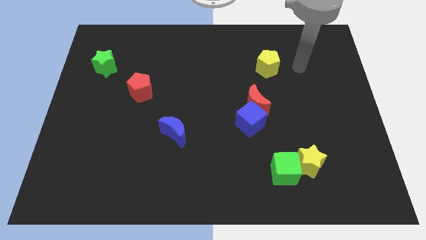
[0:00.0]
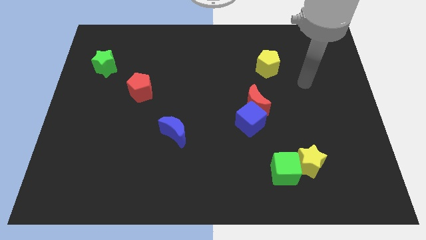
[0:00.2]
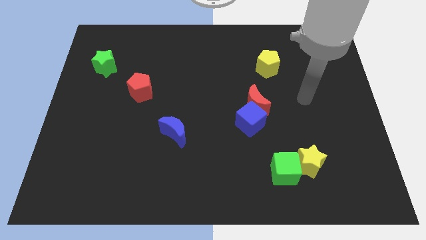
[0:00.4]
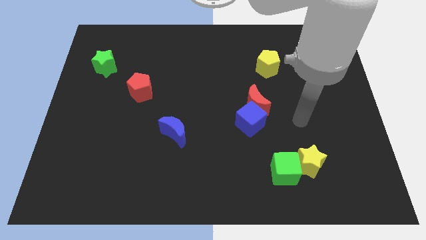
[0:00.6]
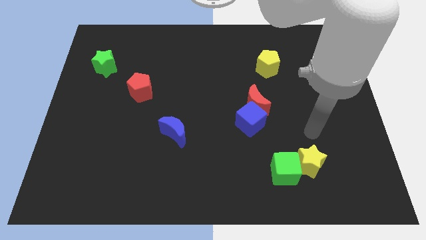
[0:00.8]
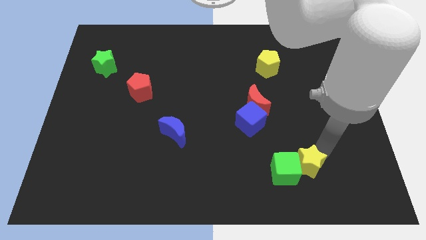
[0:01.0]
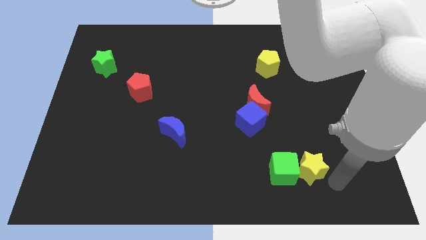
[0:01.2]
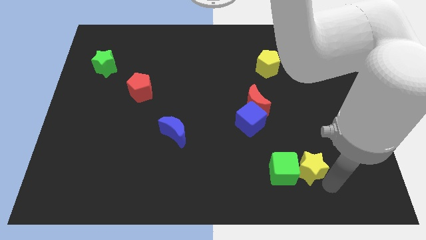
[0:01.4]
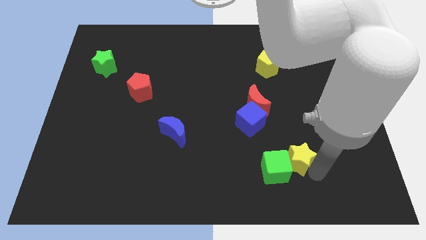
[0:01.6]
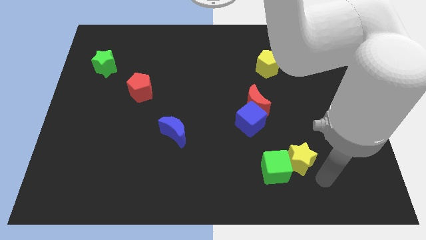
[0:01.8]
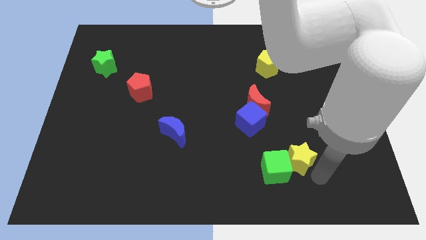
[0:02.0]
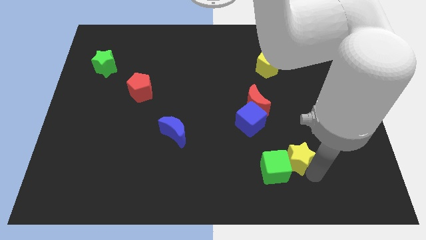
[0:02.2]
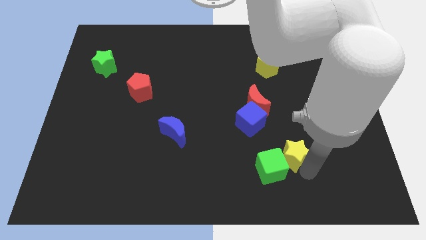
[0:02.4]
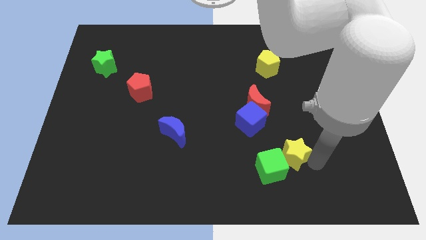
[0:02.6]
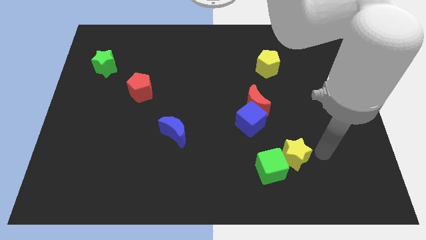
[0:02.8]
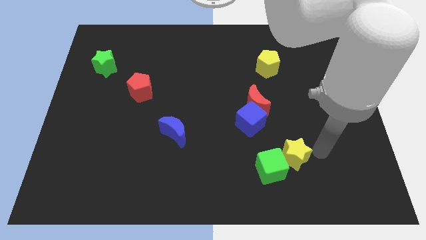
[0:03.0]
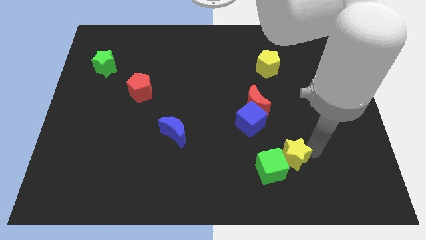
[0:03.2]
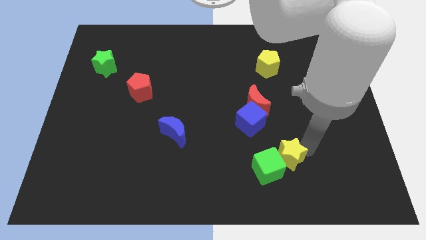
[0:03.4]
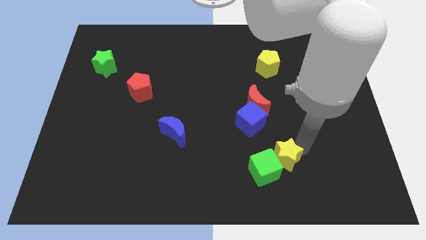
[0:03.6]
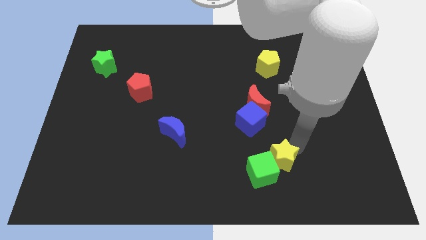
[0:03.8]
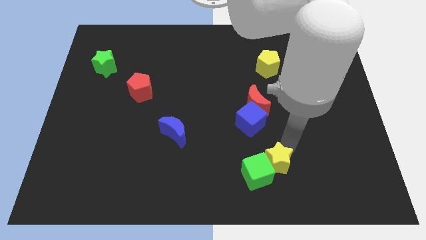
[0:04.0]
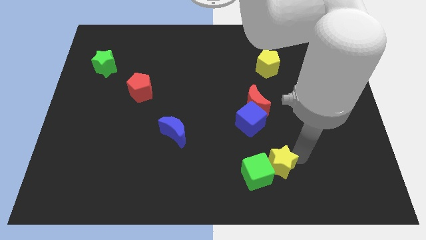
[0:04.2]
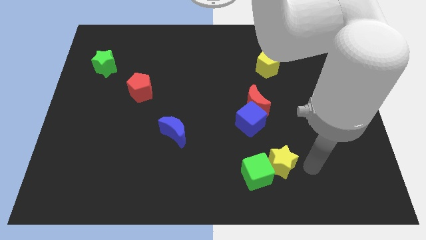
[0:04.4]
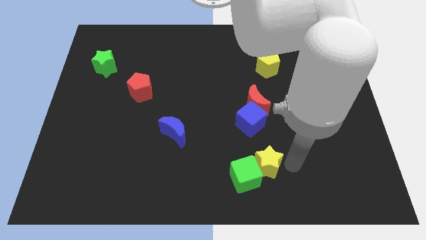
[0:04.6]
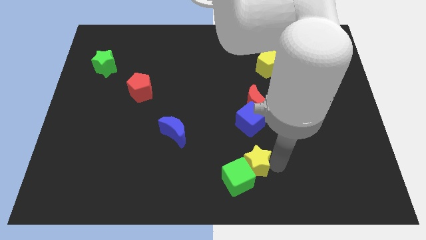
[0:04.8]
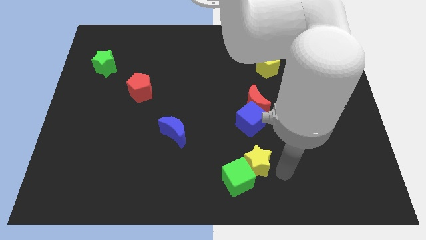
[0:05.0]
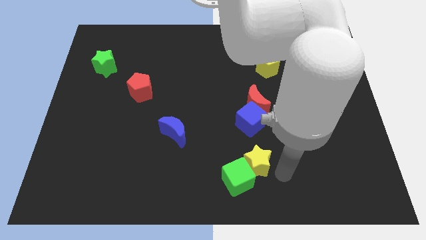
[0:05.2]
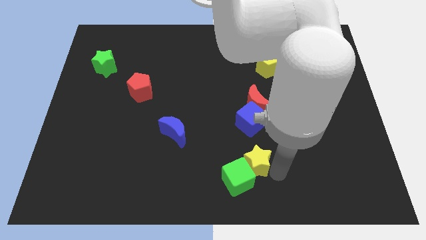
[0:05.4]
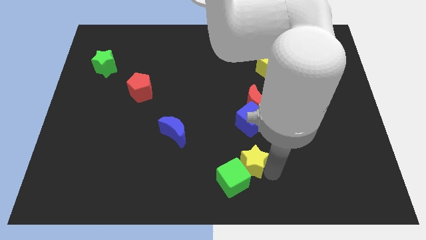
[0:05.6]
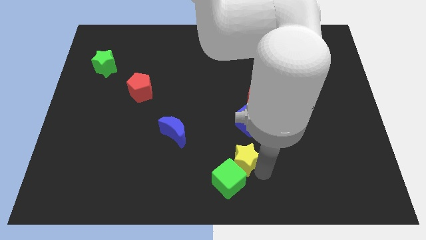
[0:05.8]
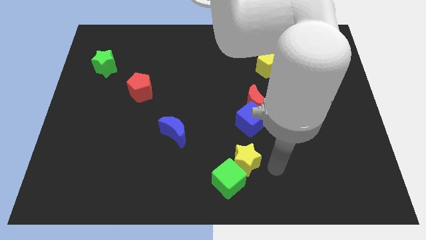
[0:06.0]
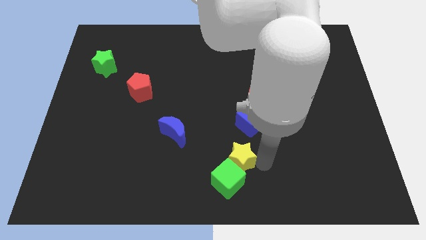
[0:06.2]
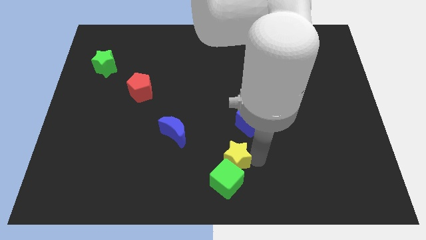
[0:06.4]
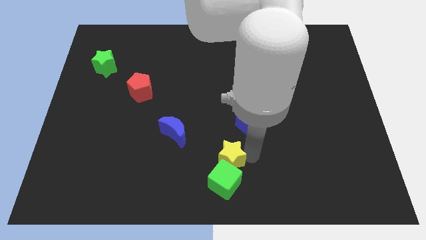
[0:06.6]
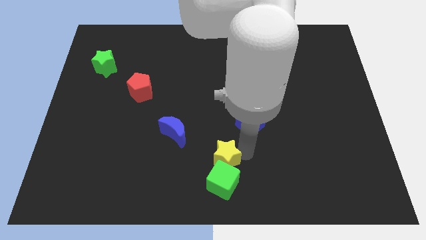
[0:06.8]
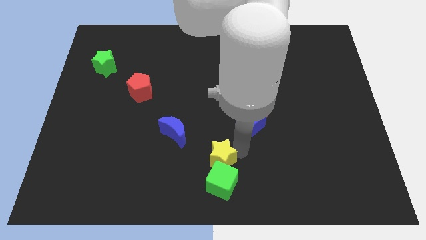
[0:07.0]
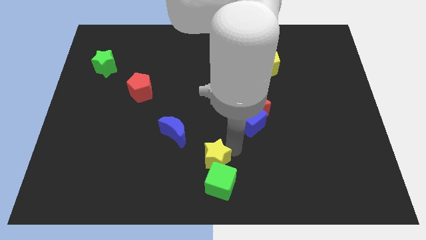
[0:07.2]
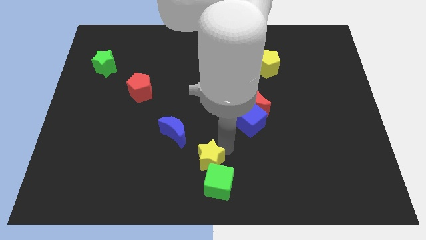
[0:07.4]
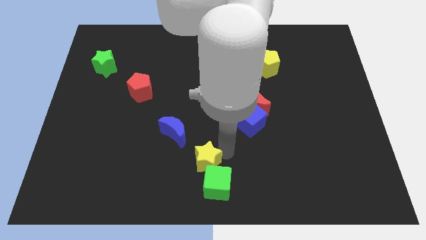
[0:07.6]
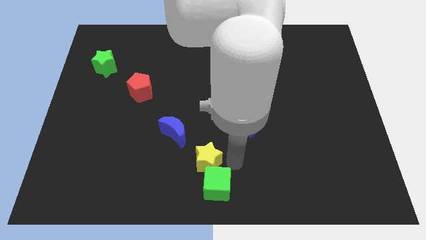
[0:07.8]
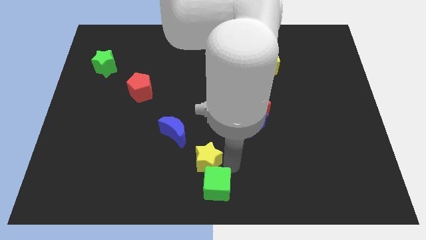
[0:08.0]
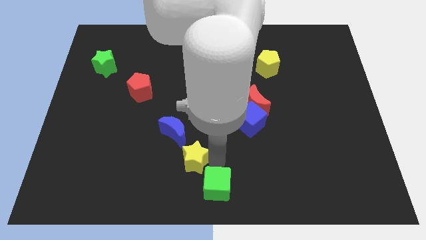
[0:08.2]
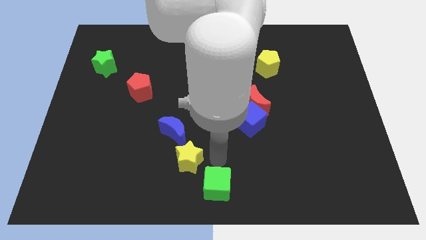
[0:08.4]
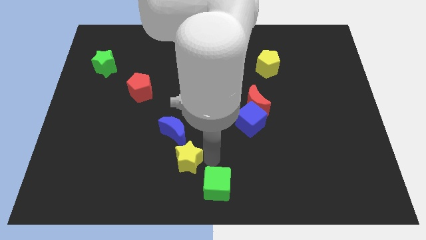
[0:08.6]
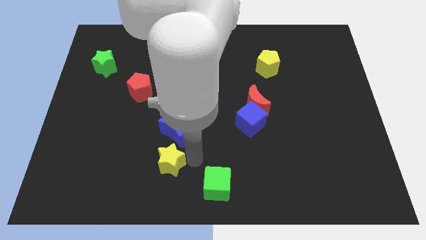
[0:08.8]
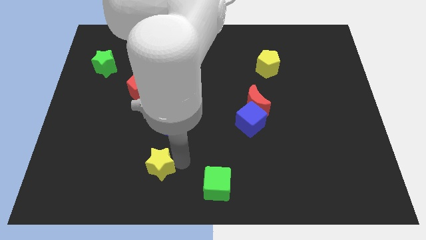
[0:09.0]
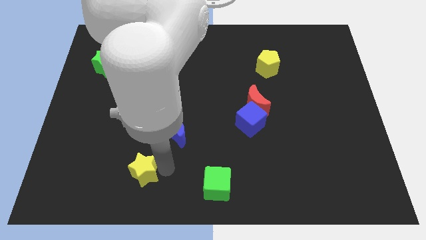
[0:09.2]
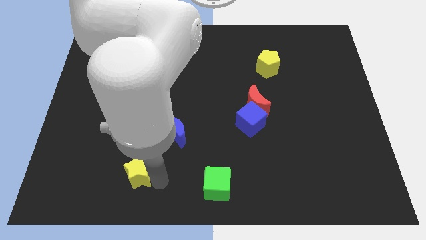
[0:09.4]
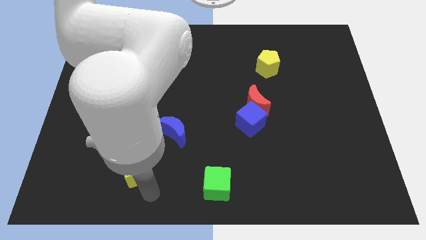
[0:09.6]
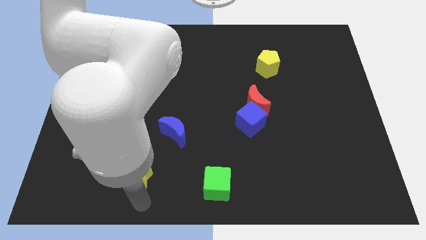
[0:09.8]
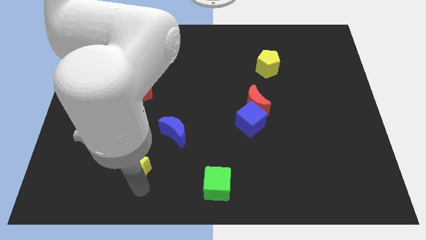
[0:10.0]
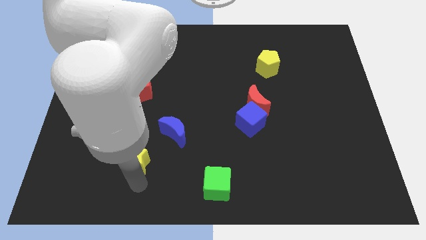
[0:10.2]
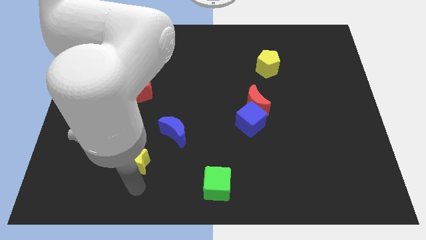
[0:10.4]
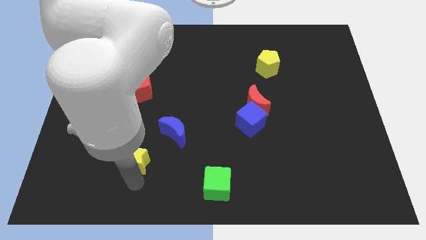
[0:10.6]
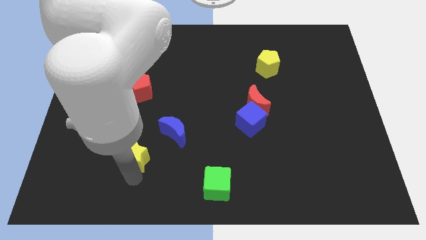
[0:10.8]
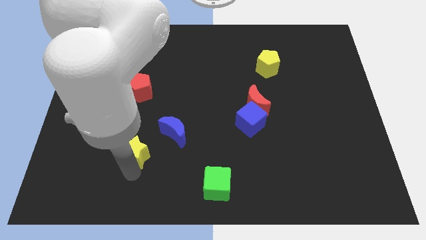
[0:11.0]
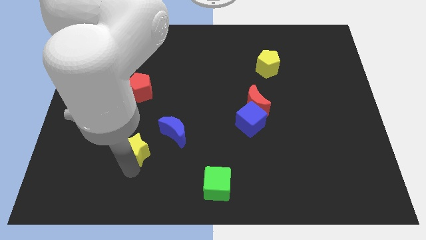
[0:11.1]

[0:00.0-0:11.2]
put the yellow star to the left of the blue moon

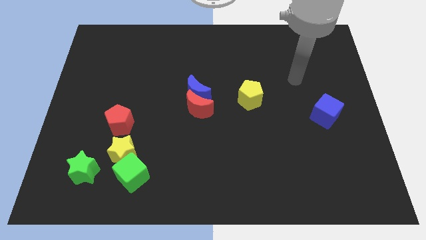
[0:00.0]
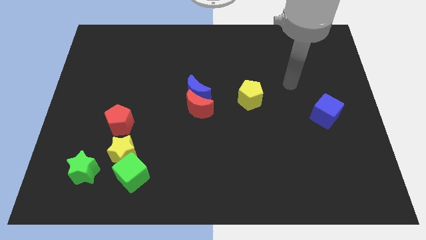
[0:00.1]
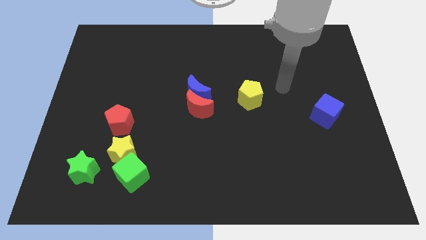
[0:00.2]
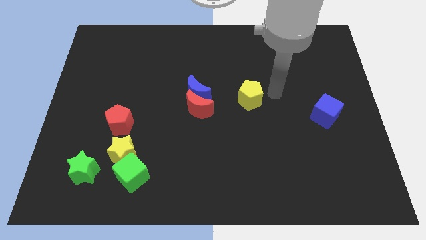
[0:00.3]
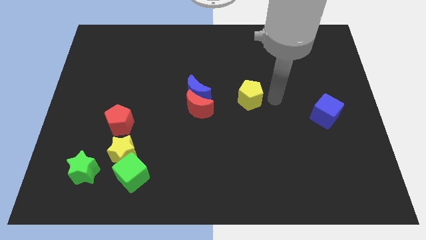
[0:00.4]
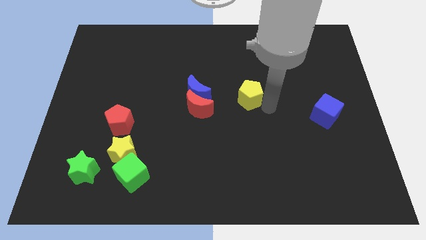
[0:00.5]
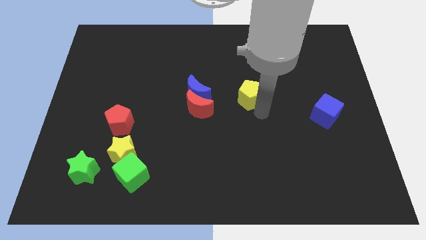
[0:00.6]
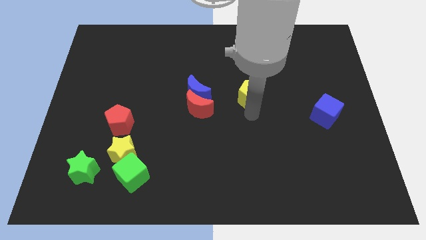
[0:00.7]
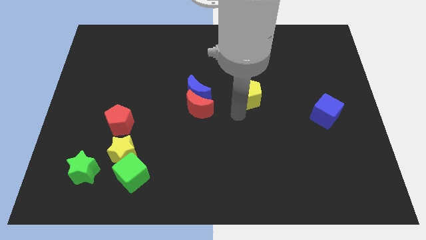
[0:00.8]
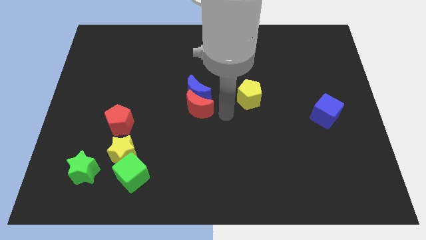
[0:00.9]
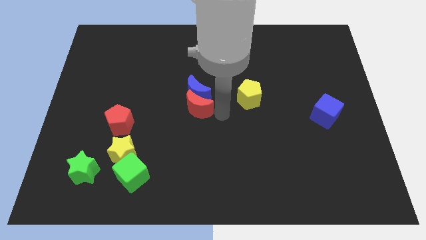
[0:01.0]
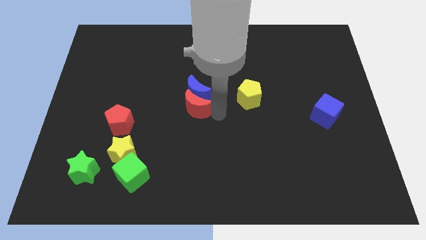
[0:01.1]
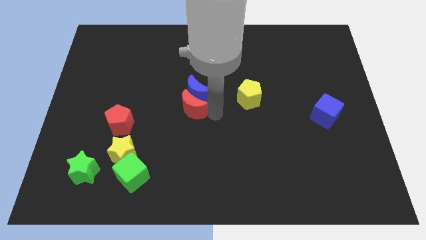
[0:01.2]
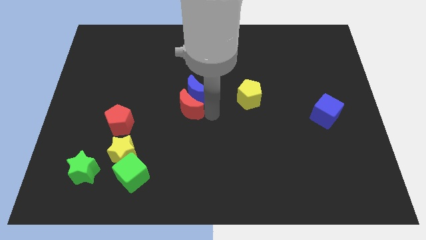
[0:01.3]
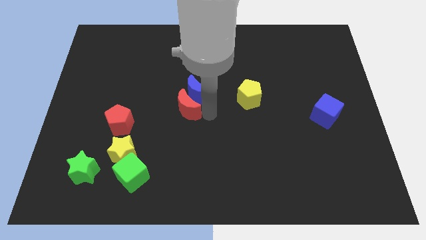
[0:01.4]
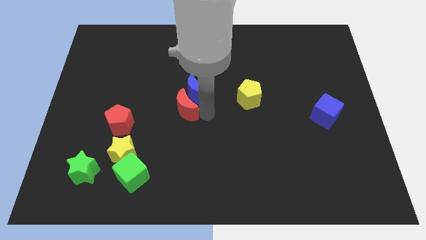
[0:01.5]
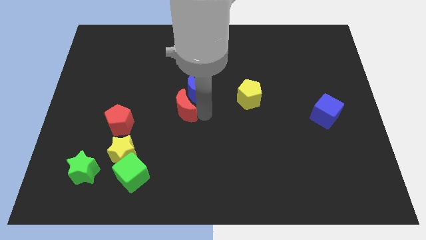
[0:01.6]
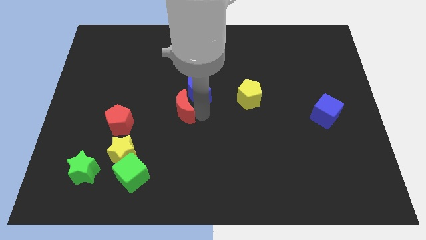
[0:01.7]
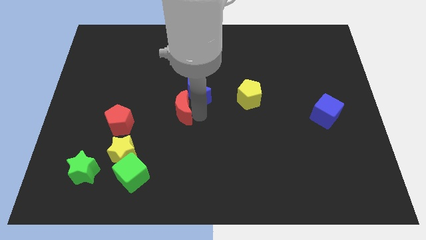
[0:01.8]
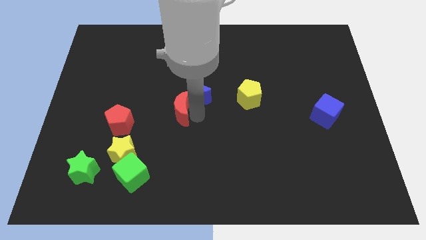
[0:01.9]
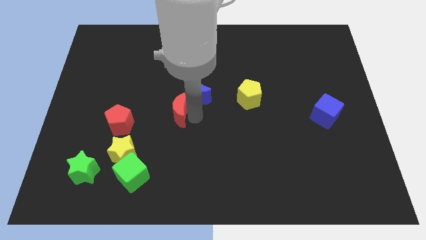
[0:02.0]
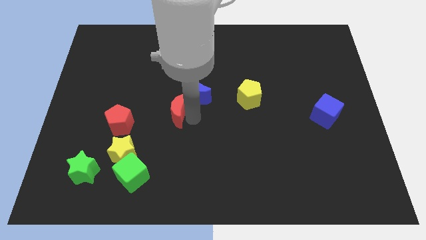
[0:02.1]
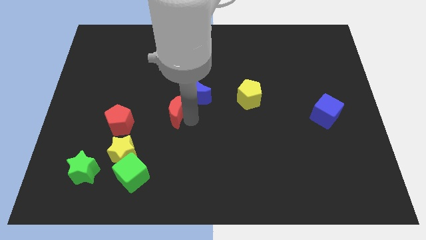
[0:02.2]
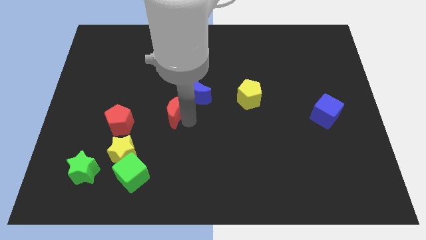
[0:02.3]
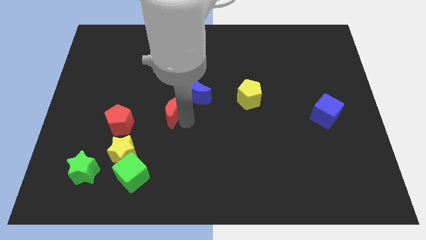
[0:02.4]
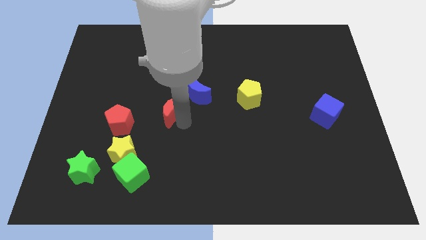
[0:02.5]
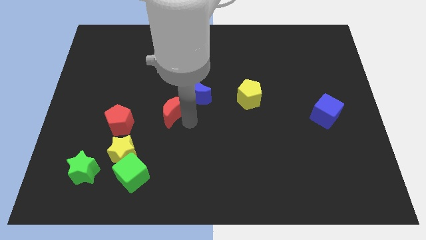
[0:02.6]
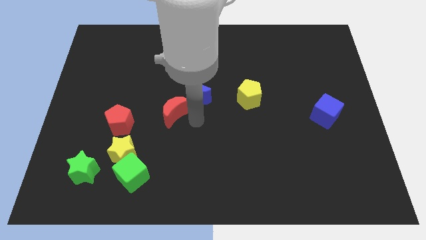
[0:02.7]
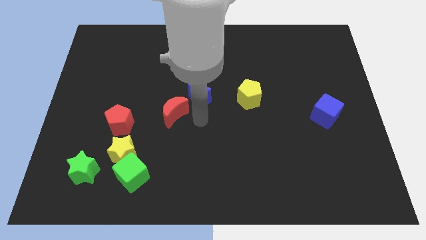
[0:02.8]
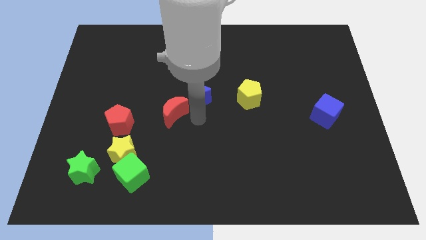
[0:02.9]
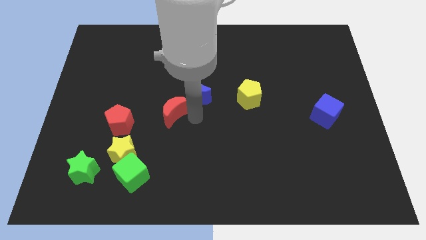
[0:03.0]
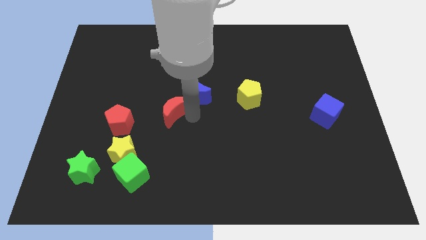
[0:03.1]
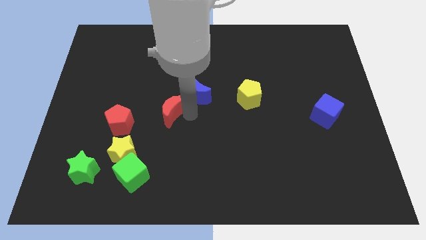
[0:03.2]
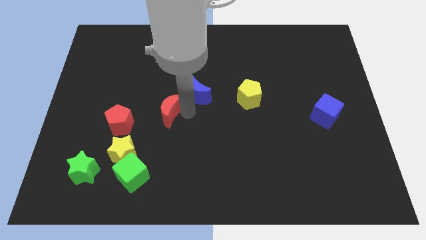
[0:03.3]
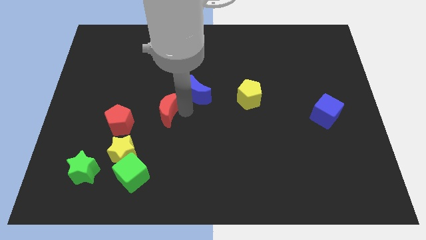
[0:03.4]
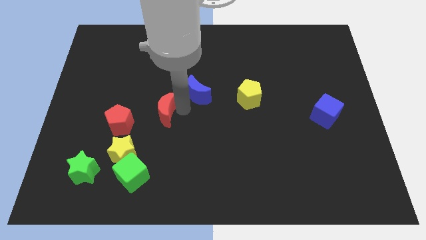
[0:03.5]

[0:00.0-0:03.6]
slide the red moon diagonally up and to the right of the red pentagon
